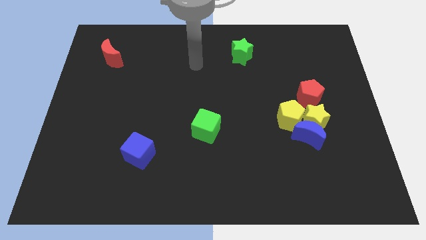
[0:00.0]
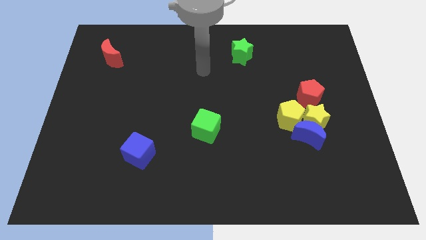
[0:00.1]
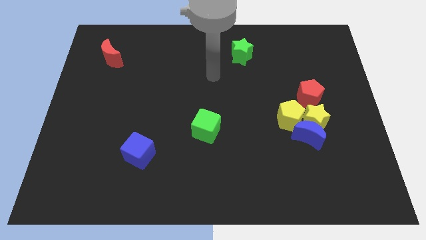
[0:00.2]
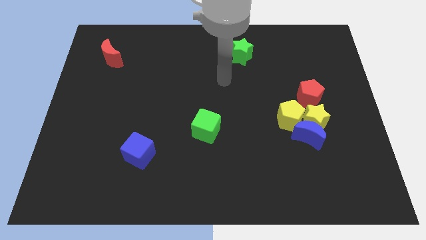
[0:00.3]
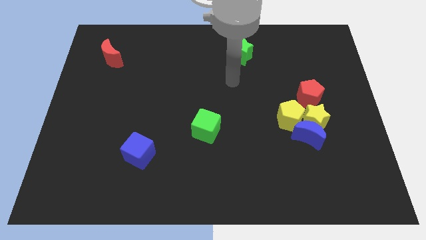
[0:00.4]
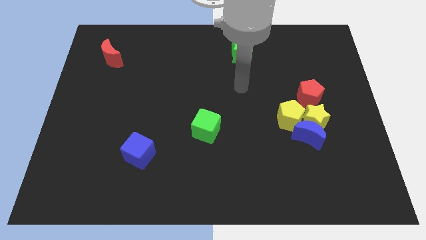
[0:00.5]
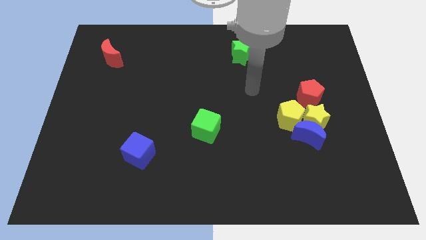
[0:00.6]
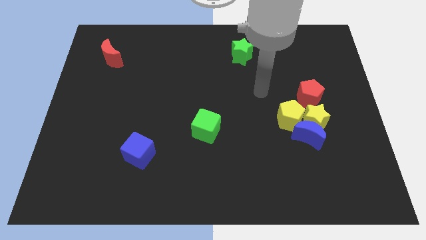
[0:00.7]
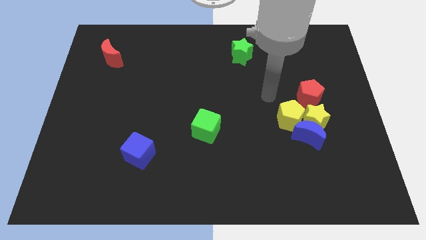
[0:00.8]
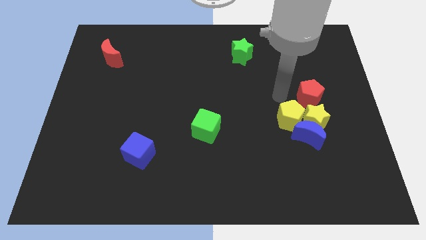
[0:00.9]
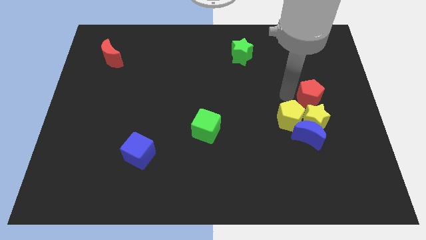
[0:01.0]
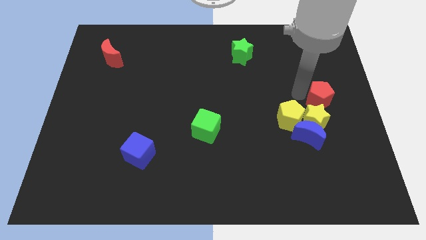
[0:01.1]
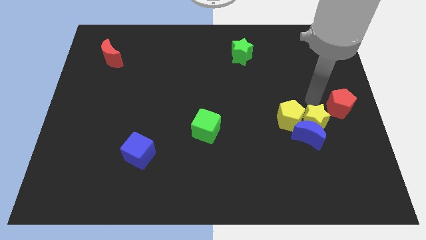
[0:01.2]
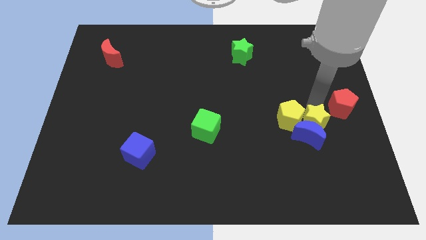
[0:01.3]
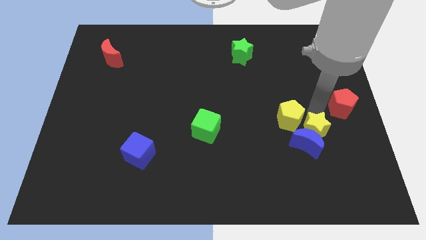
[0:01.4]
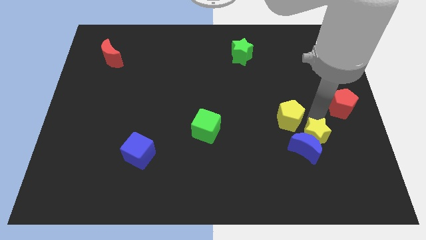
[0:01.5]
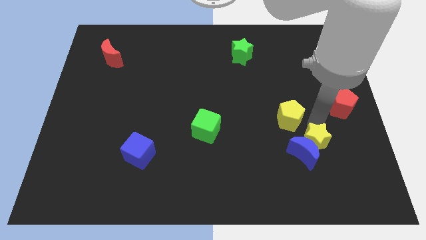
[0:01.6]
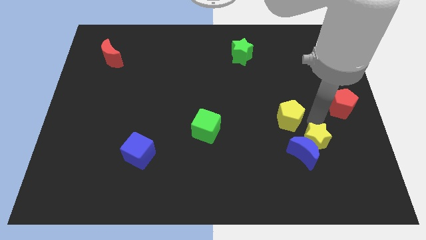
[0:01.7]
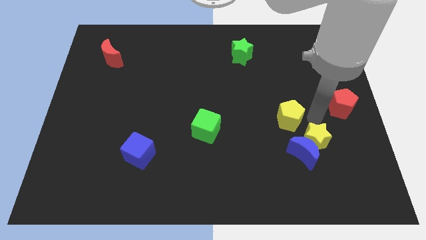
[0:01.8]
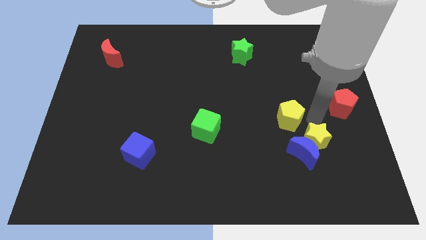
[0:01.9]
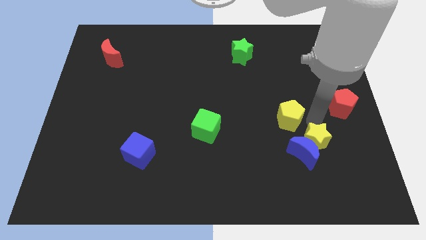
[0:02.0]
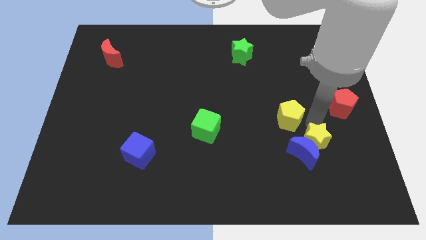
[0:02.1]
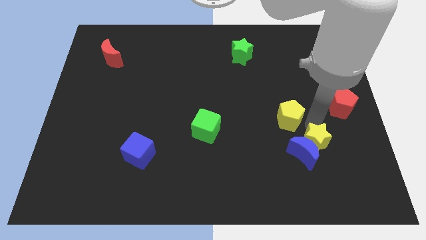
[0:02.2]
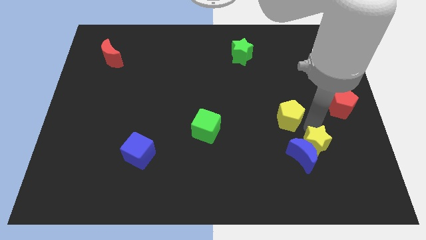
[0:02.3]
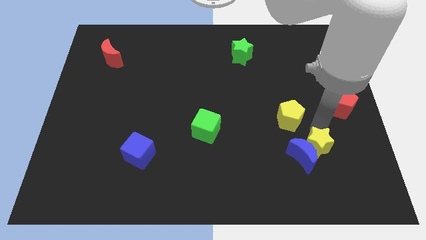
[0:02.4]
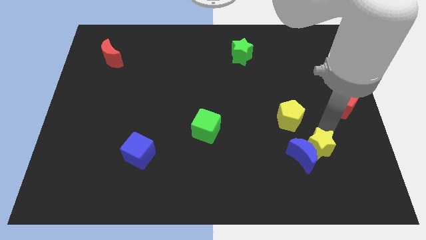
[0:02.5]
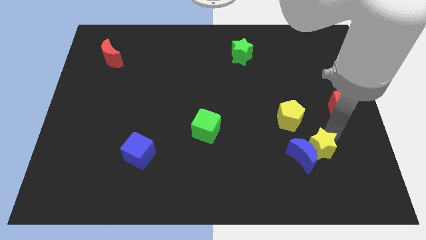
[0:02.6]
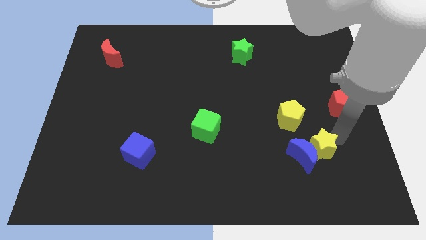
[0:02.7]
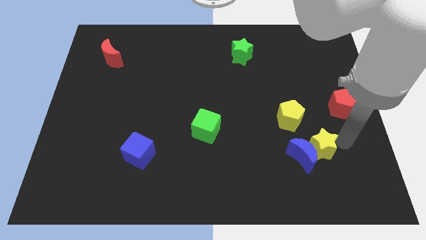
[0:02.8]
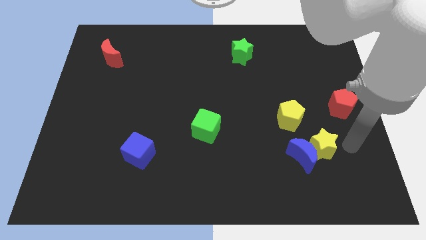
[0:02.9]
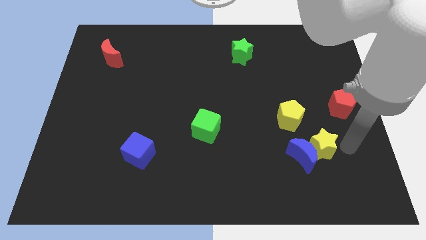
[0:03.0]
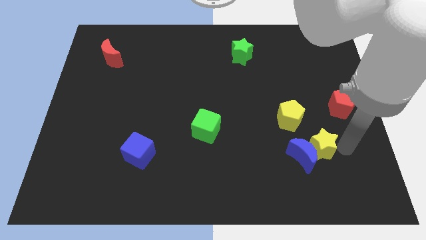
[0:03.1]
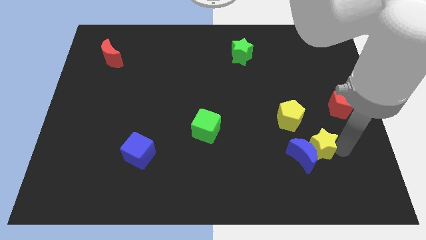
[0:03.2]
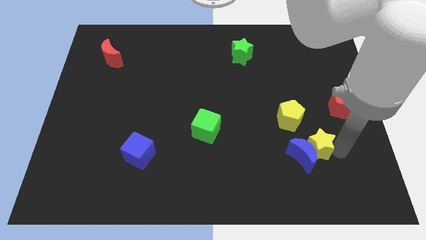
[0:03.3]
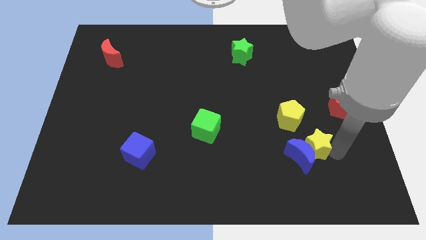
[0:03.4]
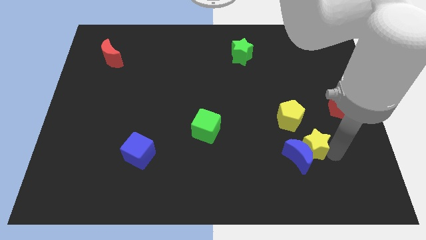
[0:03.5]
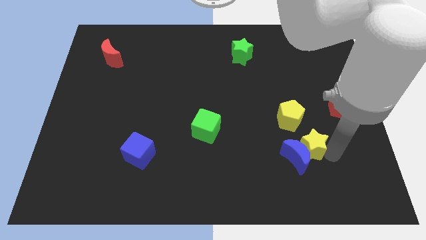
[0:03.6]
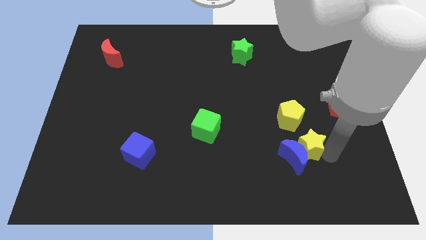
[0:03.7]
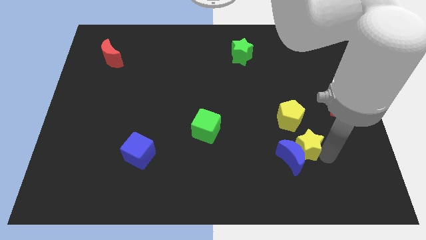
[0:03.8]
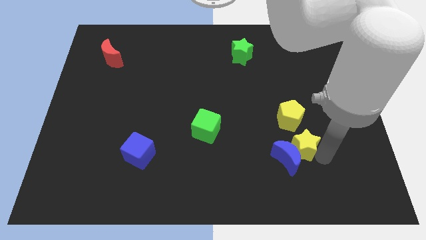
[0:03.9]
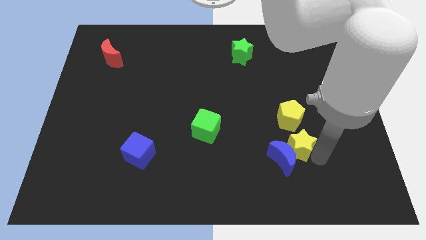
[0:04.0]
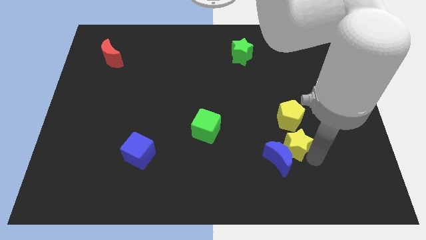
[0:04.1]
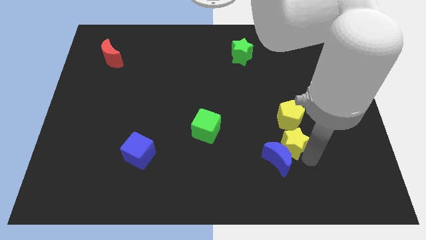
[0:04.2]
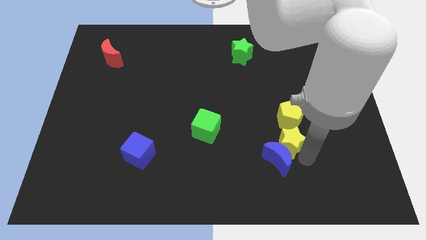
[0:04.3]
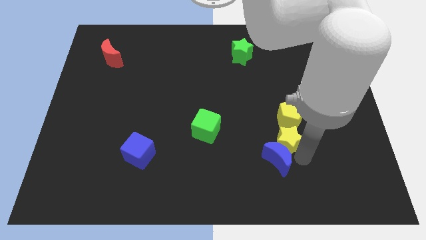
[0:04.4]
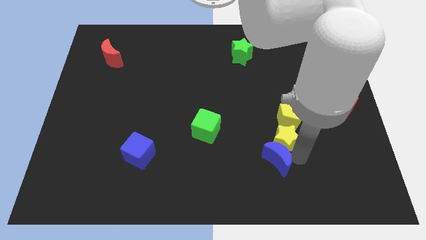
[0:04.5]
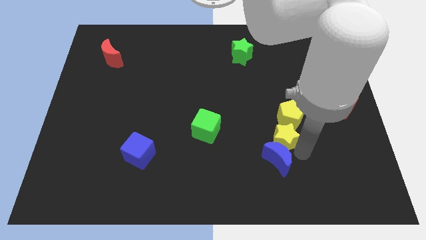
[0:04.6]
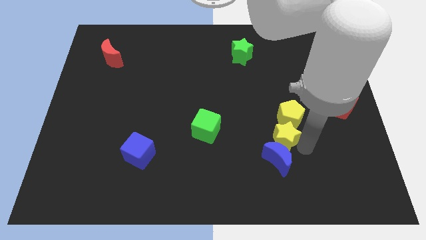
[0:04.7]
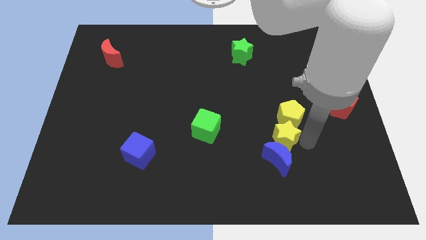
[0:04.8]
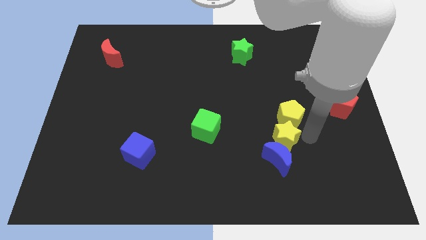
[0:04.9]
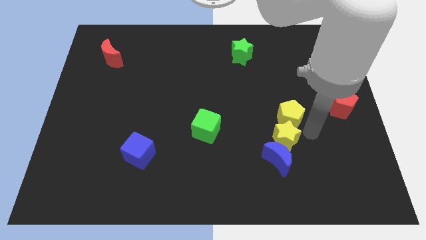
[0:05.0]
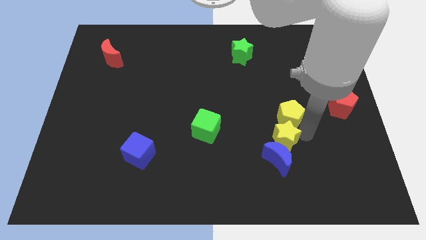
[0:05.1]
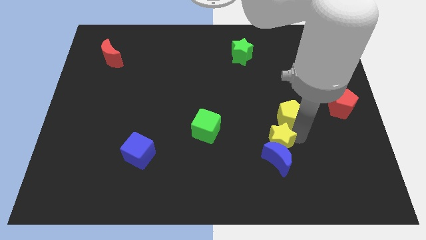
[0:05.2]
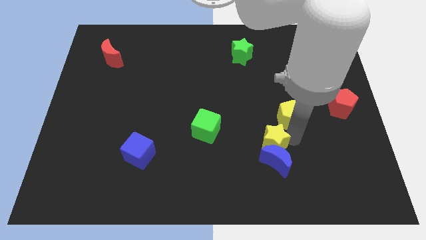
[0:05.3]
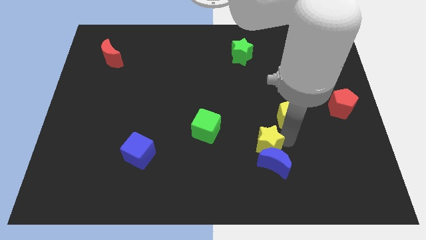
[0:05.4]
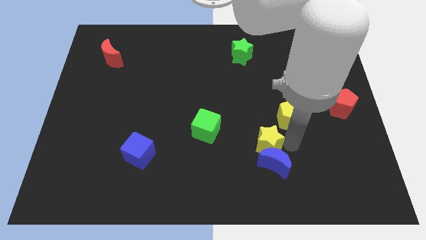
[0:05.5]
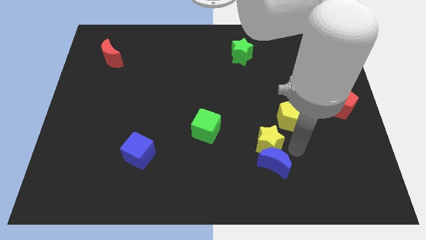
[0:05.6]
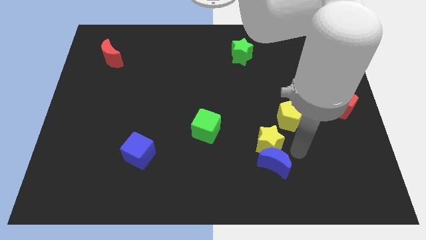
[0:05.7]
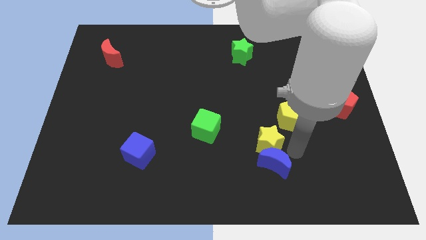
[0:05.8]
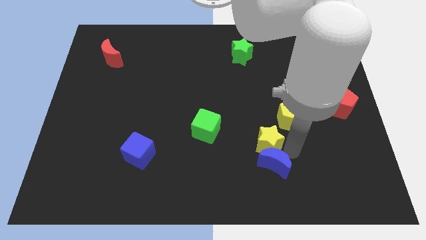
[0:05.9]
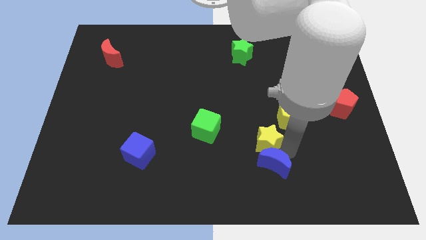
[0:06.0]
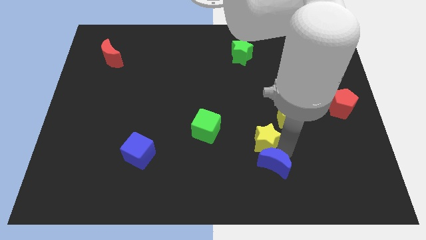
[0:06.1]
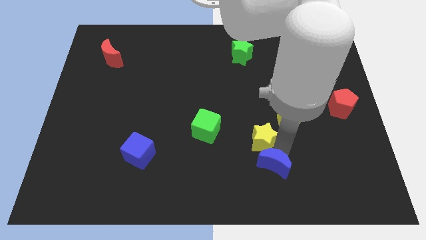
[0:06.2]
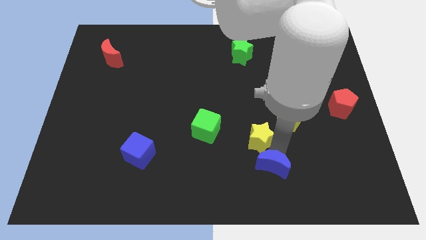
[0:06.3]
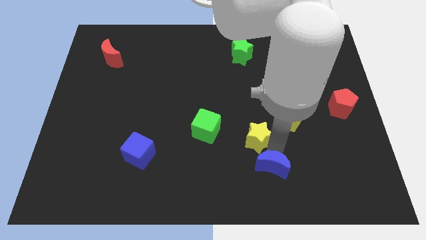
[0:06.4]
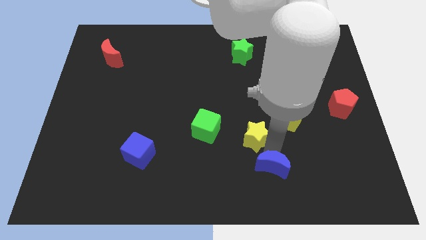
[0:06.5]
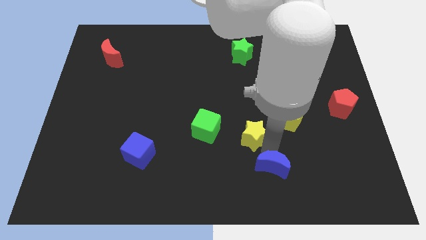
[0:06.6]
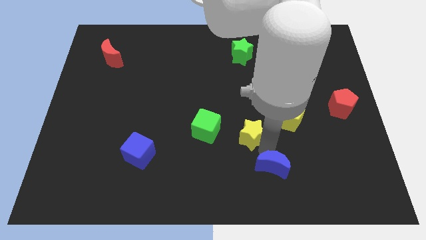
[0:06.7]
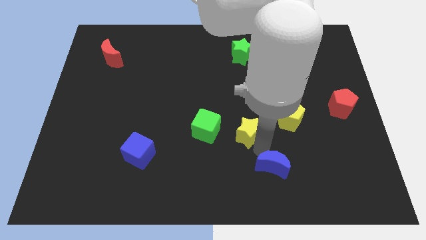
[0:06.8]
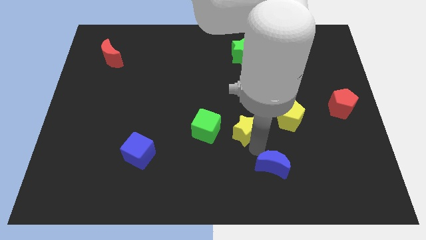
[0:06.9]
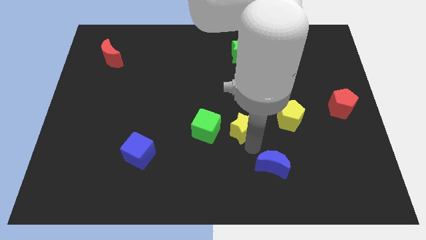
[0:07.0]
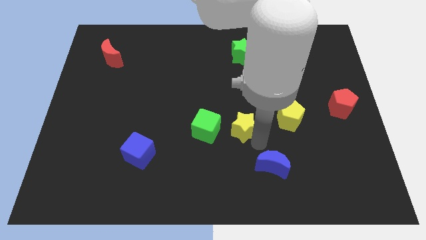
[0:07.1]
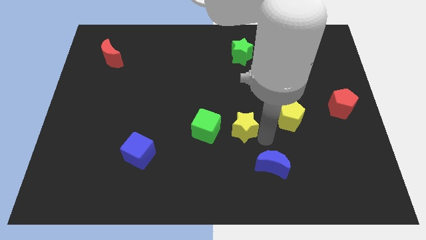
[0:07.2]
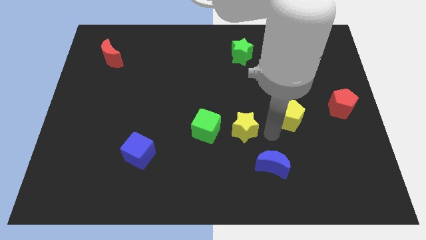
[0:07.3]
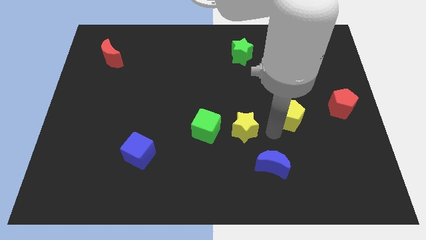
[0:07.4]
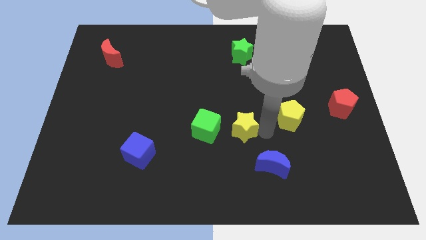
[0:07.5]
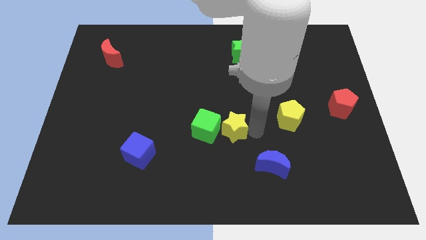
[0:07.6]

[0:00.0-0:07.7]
move the yellow star next to the green cube
